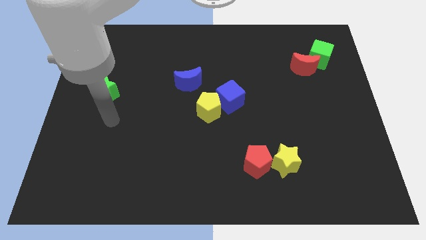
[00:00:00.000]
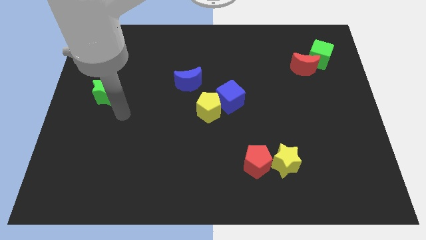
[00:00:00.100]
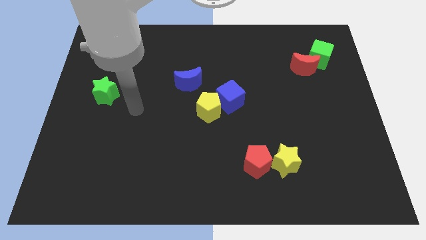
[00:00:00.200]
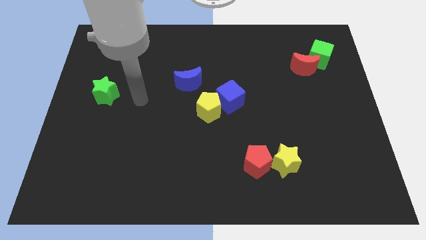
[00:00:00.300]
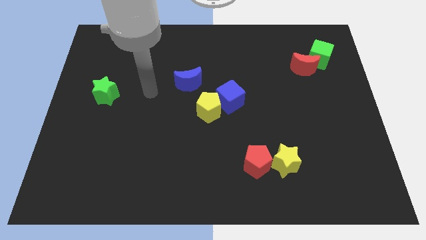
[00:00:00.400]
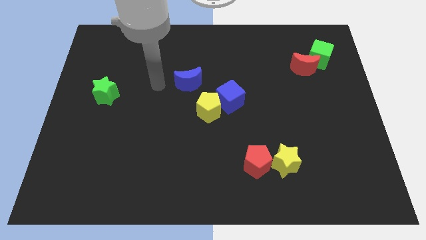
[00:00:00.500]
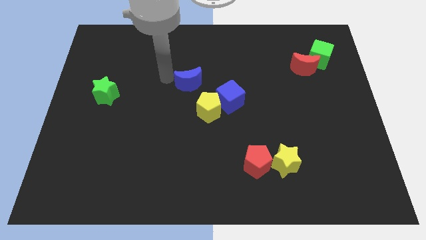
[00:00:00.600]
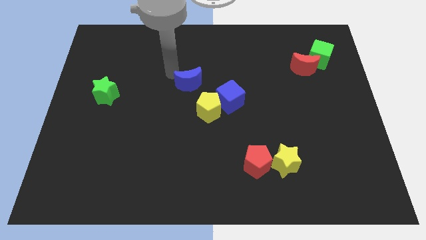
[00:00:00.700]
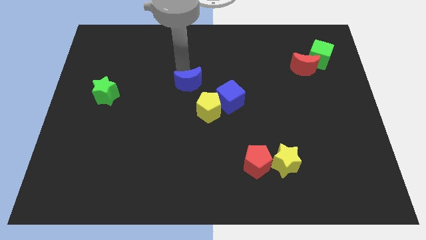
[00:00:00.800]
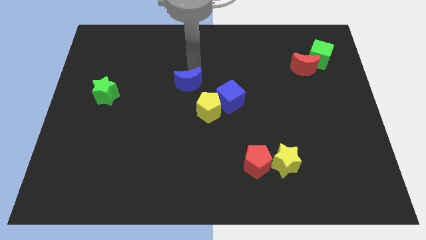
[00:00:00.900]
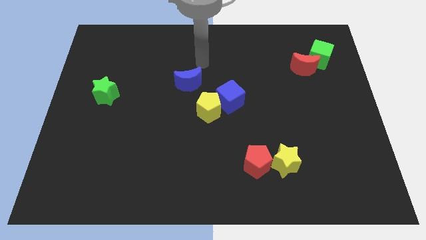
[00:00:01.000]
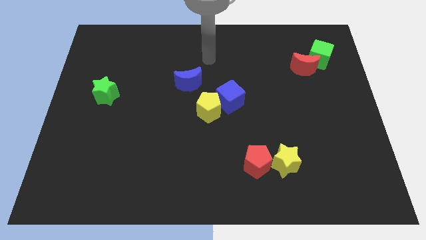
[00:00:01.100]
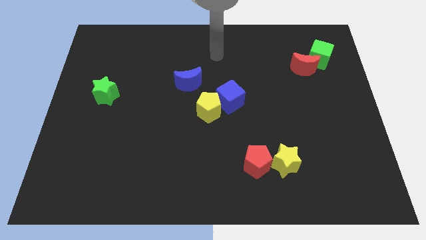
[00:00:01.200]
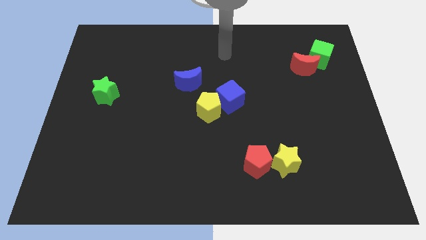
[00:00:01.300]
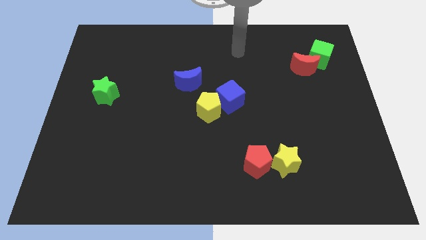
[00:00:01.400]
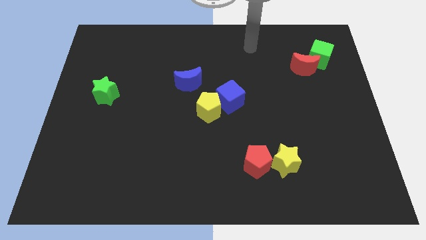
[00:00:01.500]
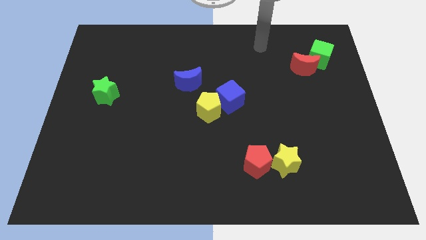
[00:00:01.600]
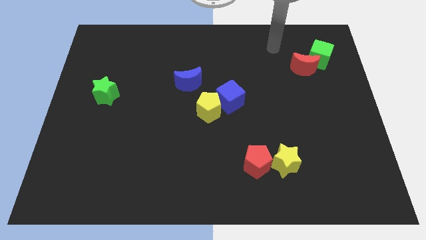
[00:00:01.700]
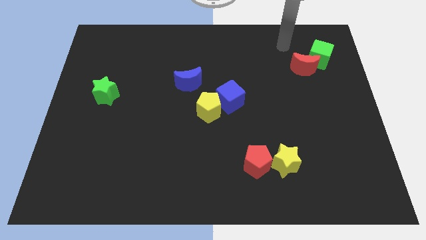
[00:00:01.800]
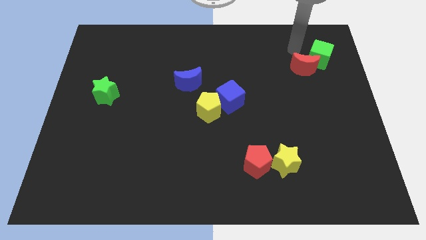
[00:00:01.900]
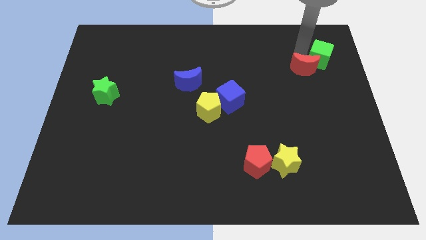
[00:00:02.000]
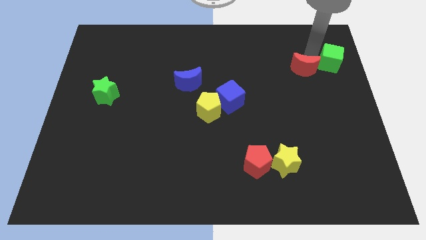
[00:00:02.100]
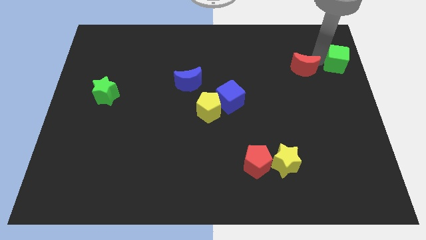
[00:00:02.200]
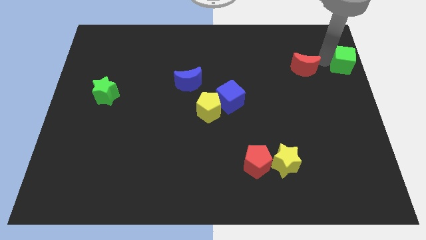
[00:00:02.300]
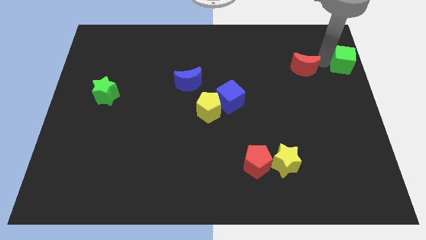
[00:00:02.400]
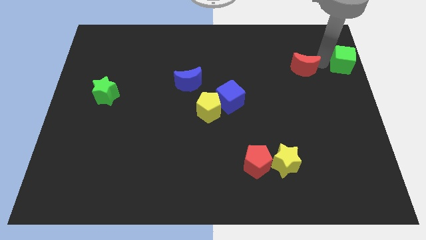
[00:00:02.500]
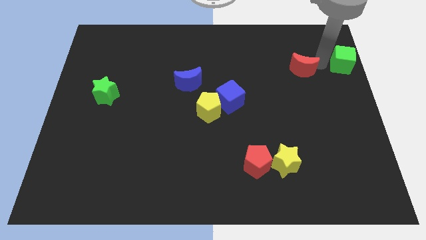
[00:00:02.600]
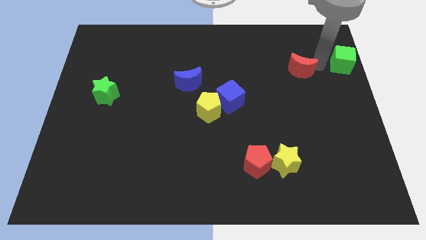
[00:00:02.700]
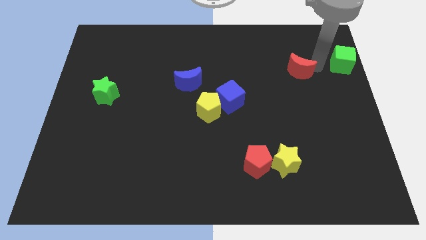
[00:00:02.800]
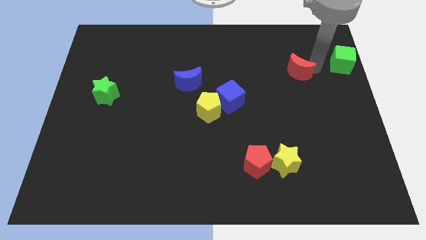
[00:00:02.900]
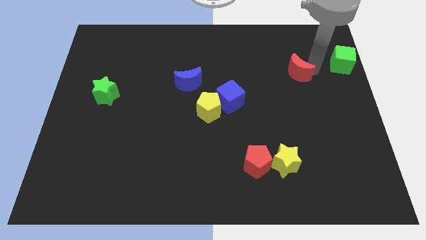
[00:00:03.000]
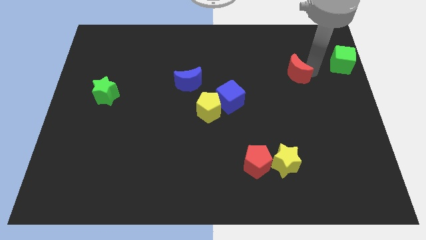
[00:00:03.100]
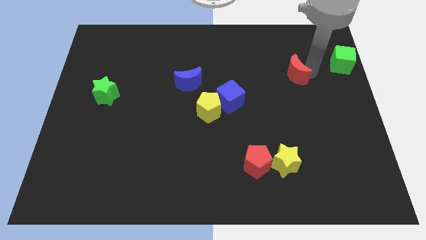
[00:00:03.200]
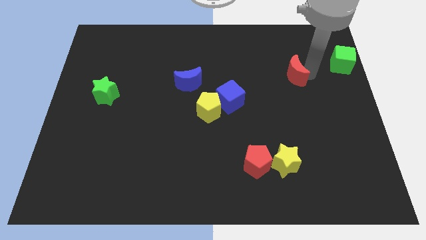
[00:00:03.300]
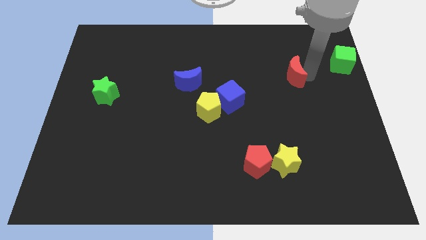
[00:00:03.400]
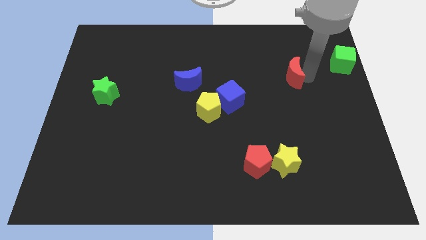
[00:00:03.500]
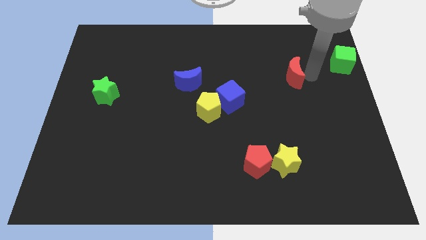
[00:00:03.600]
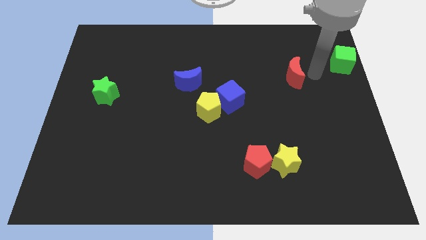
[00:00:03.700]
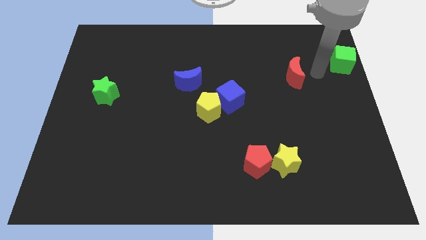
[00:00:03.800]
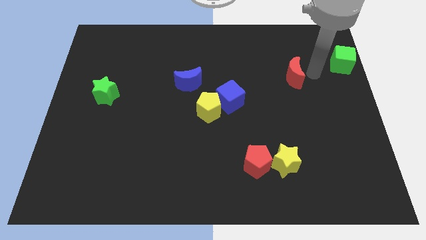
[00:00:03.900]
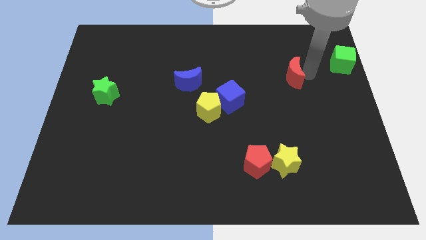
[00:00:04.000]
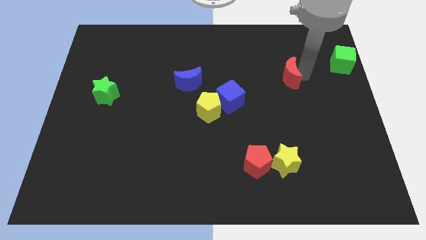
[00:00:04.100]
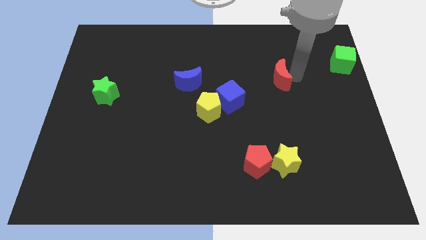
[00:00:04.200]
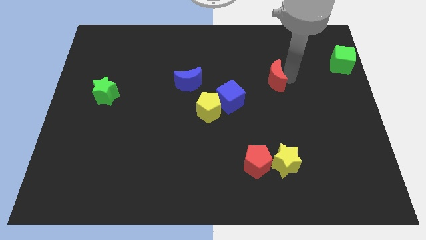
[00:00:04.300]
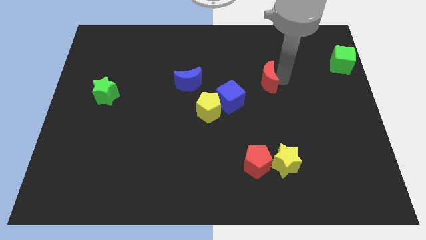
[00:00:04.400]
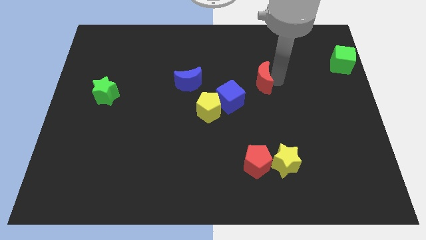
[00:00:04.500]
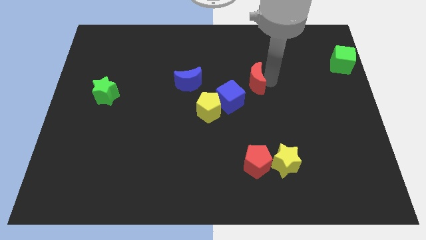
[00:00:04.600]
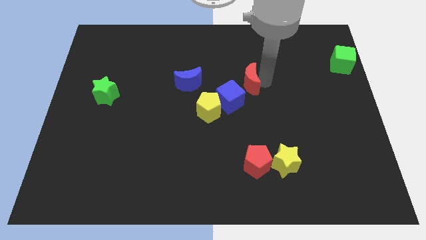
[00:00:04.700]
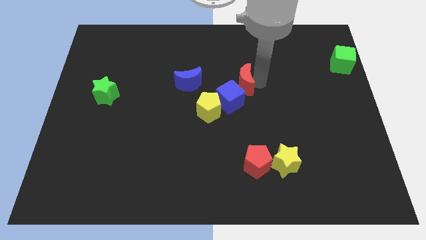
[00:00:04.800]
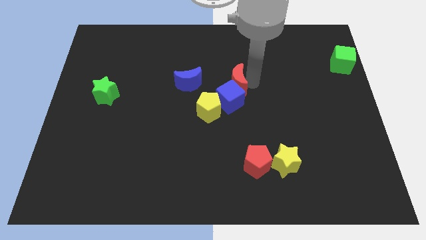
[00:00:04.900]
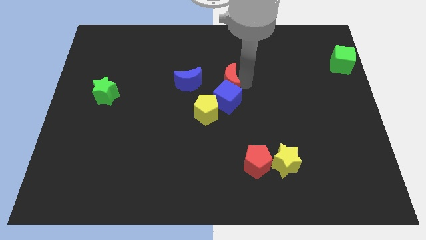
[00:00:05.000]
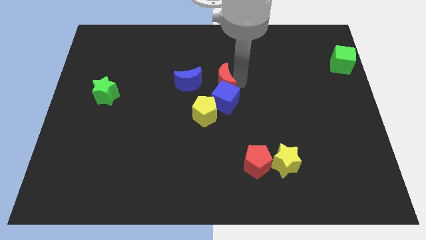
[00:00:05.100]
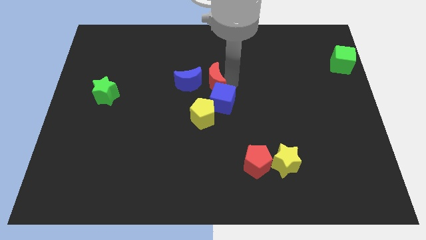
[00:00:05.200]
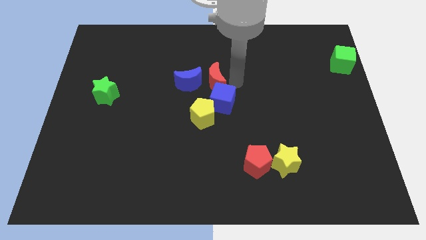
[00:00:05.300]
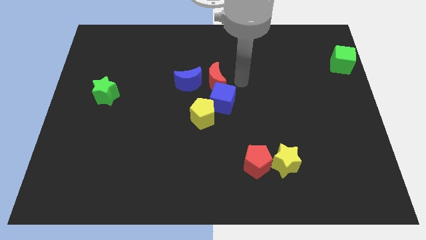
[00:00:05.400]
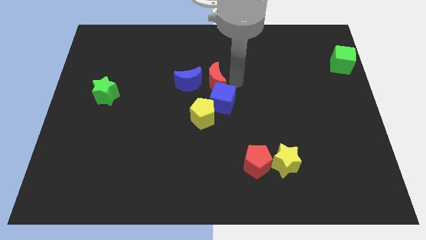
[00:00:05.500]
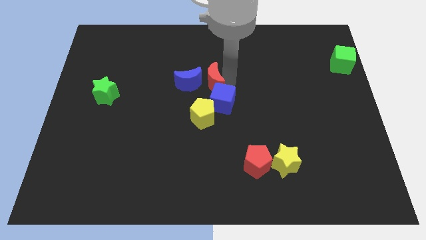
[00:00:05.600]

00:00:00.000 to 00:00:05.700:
move the red moon next to the blue moon
